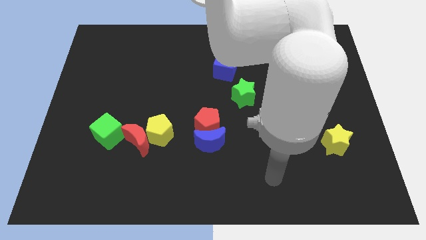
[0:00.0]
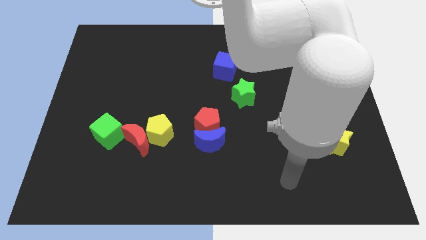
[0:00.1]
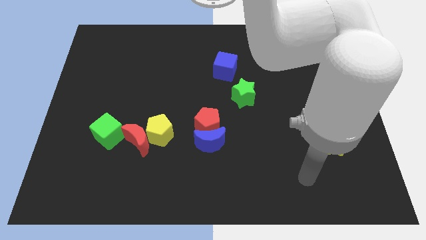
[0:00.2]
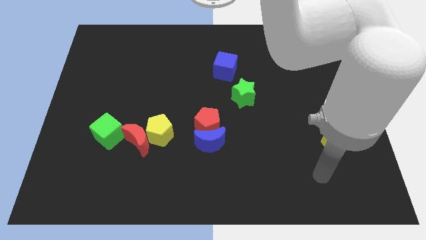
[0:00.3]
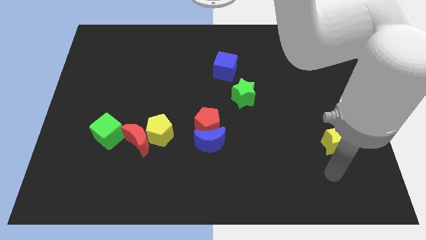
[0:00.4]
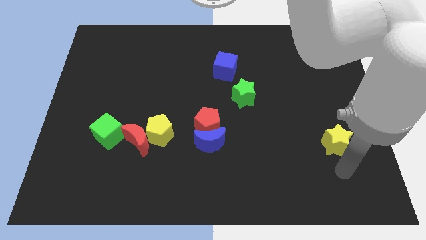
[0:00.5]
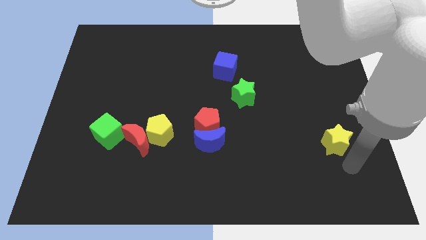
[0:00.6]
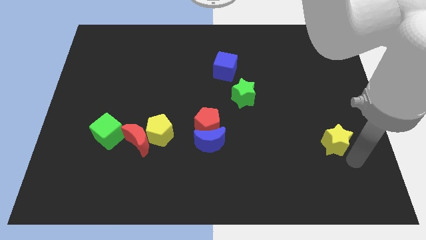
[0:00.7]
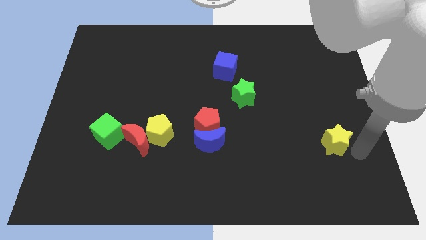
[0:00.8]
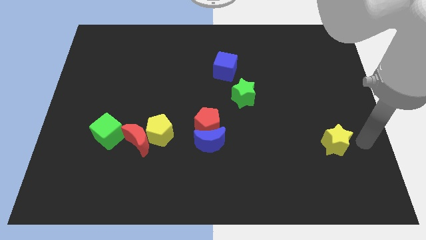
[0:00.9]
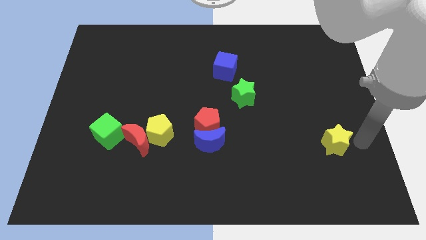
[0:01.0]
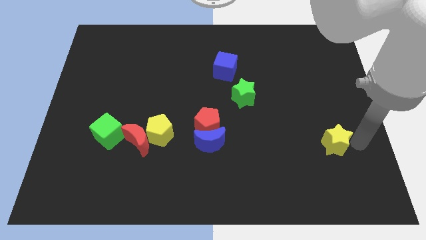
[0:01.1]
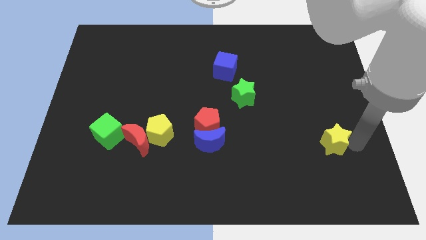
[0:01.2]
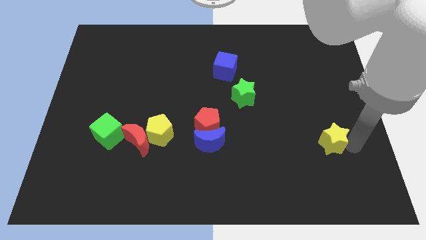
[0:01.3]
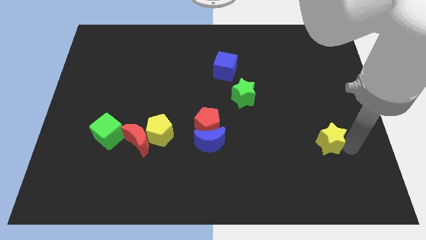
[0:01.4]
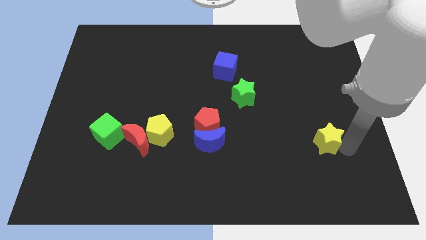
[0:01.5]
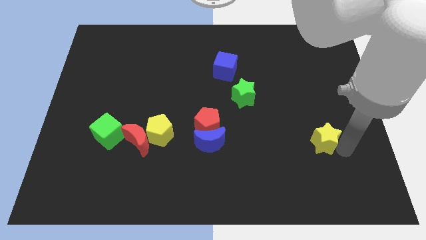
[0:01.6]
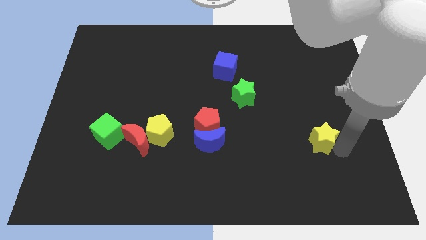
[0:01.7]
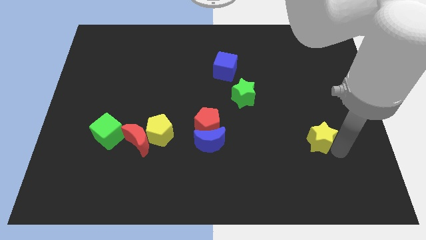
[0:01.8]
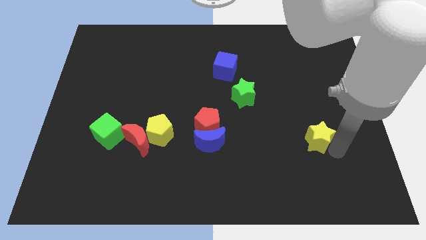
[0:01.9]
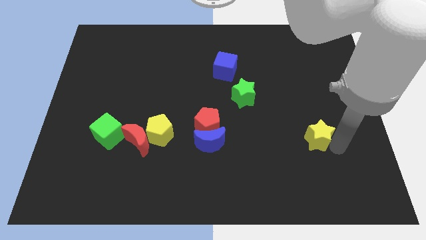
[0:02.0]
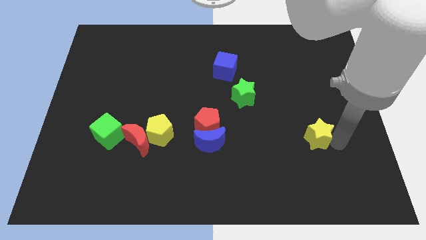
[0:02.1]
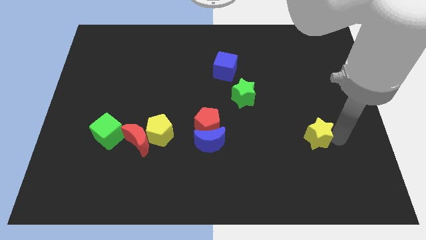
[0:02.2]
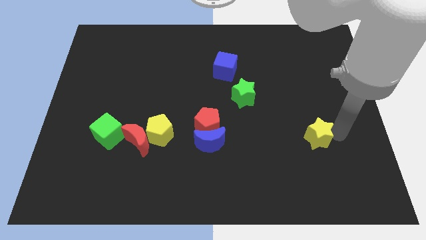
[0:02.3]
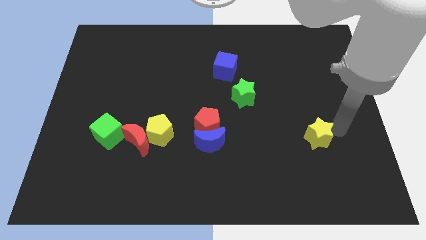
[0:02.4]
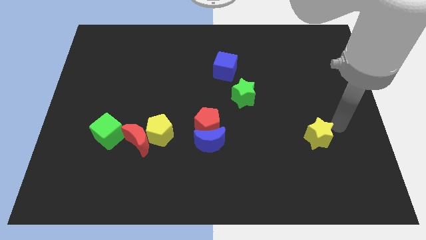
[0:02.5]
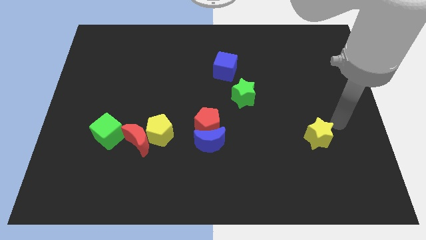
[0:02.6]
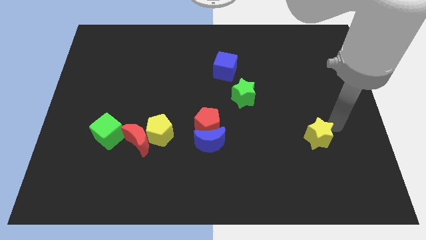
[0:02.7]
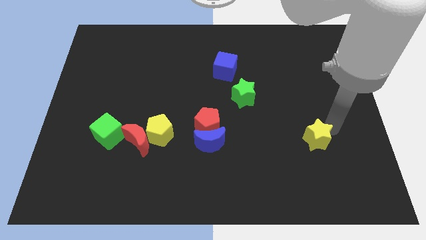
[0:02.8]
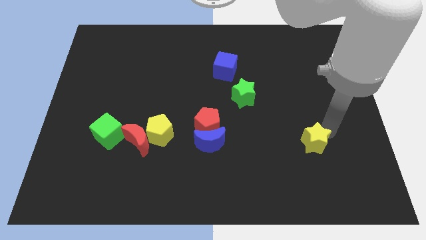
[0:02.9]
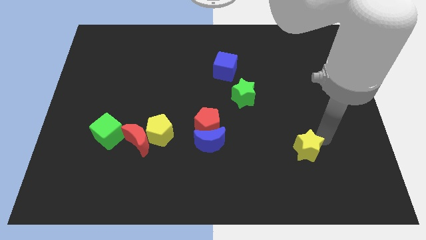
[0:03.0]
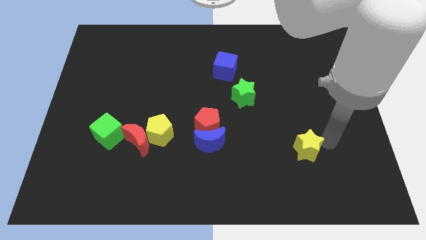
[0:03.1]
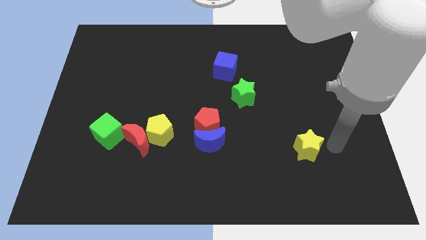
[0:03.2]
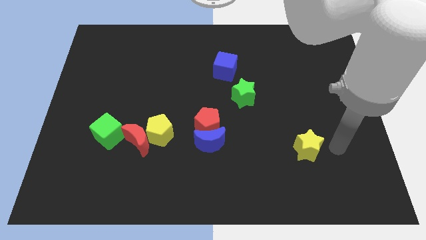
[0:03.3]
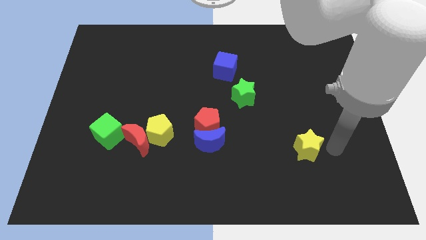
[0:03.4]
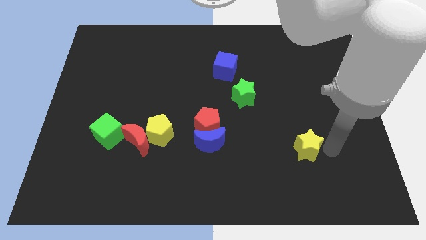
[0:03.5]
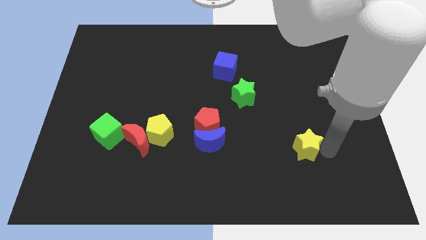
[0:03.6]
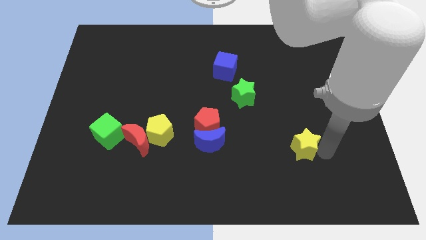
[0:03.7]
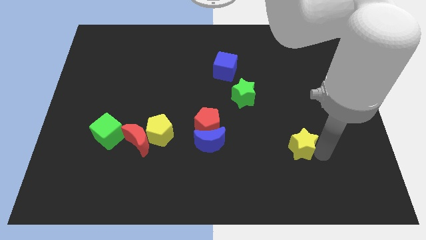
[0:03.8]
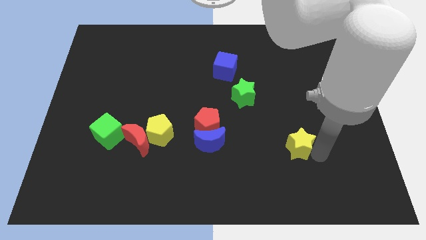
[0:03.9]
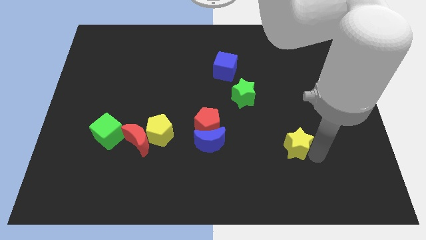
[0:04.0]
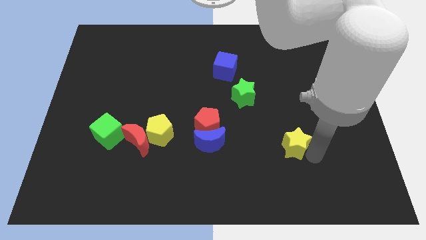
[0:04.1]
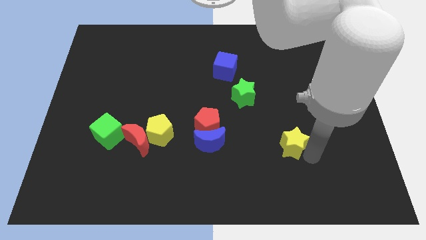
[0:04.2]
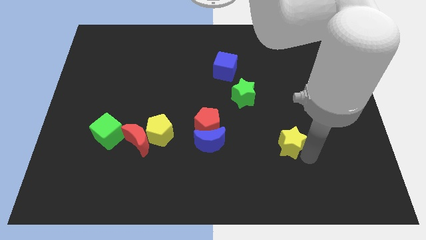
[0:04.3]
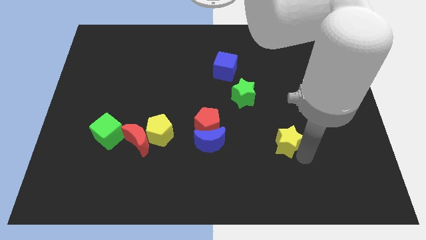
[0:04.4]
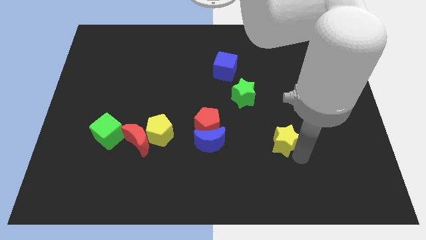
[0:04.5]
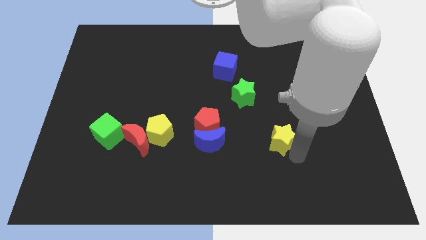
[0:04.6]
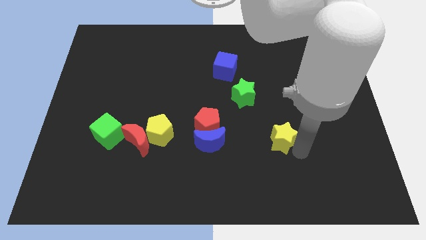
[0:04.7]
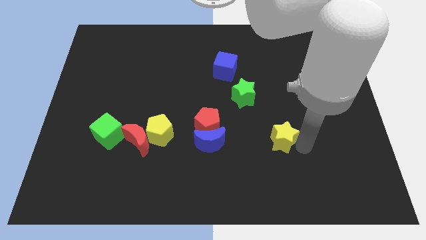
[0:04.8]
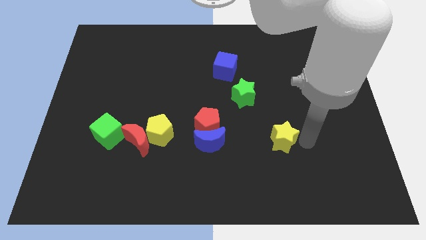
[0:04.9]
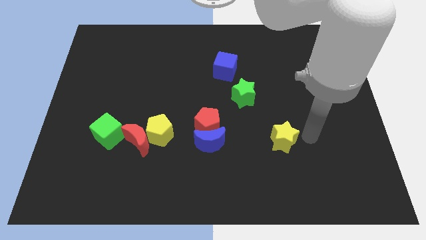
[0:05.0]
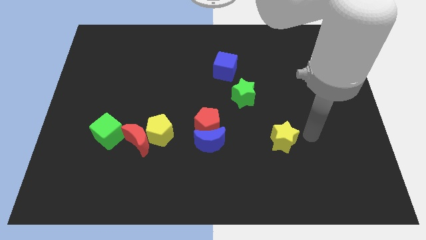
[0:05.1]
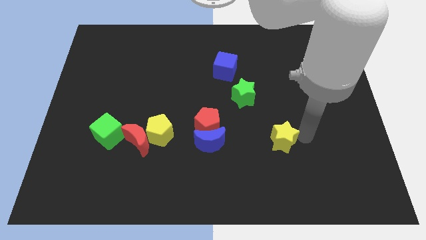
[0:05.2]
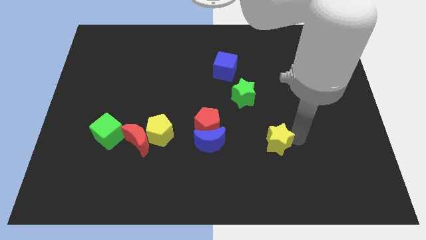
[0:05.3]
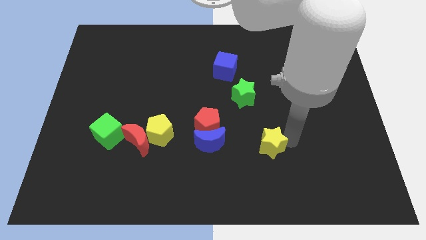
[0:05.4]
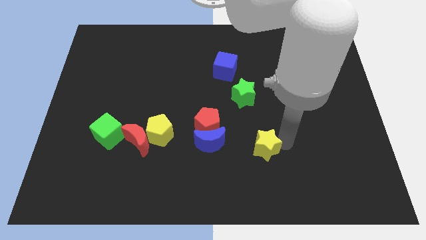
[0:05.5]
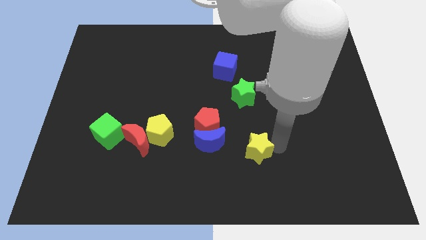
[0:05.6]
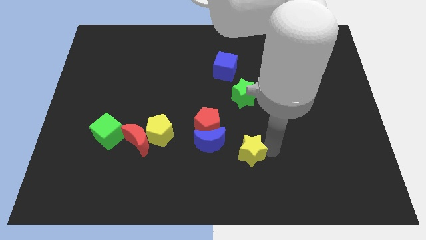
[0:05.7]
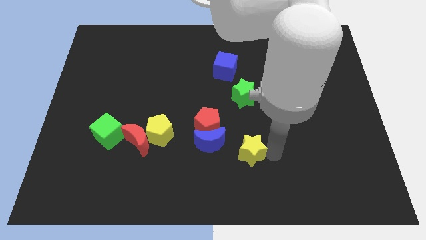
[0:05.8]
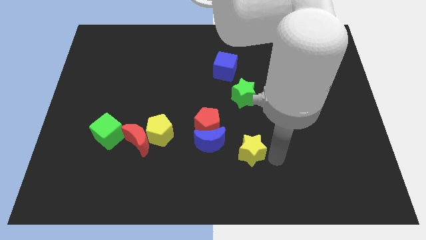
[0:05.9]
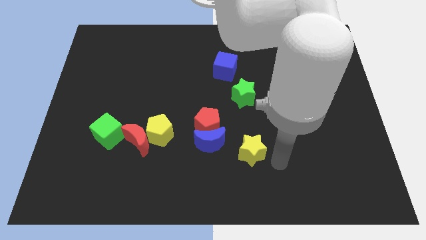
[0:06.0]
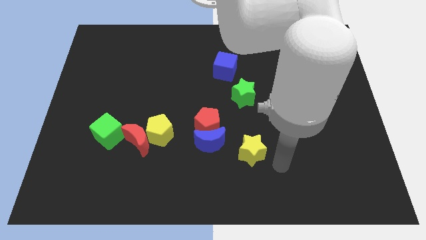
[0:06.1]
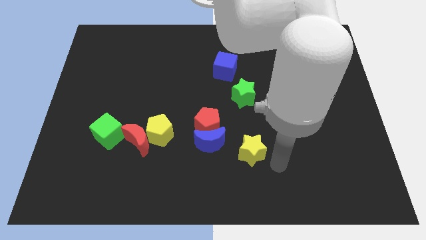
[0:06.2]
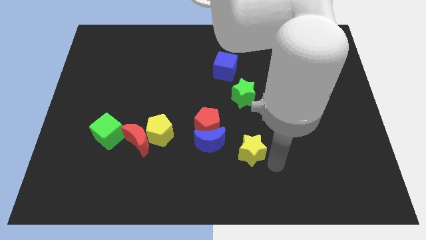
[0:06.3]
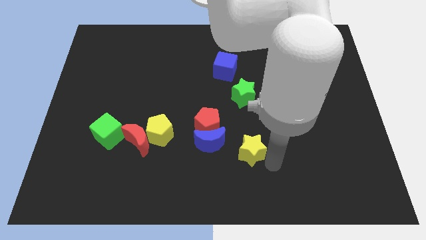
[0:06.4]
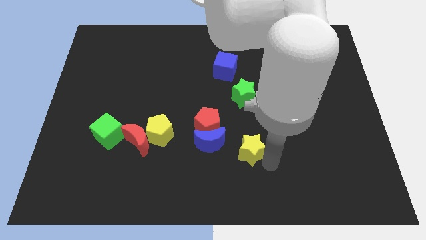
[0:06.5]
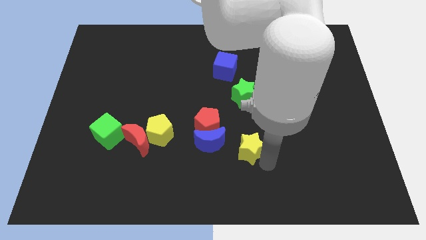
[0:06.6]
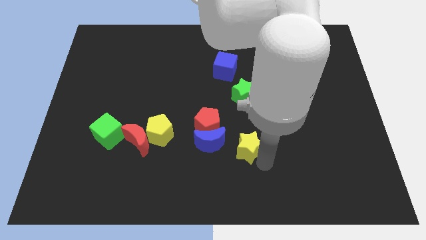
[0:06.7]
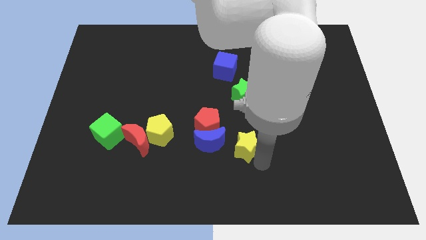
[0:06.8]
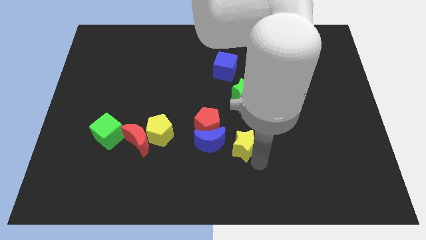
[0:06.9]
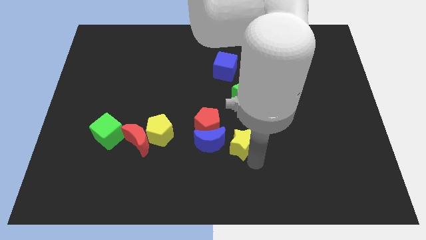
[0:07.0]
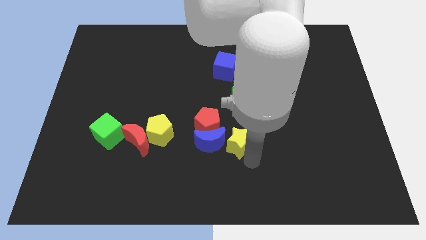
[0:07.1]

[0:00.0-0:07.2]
put the yellow star close to the blue moon

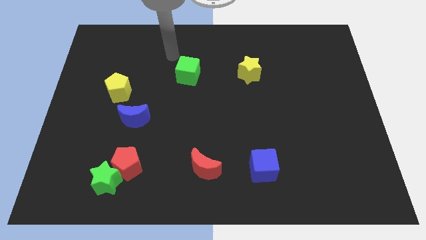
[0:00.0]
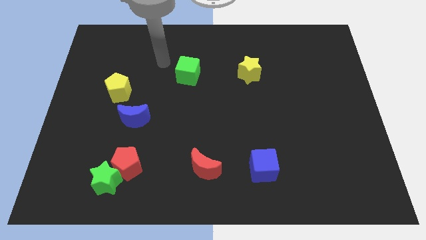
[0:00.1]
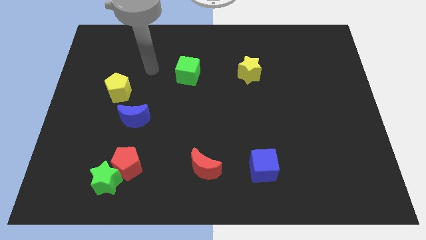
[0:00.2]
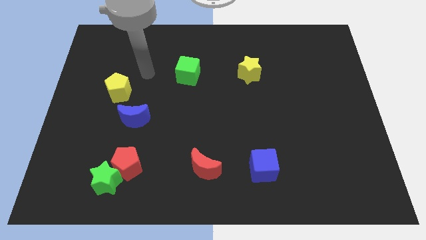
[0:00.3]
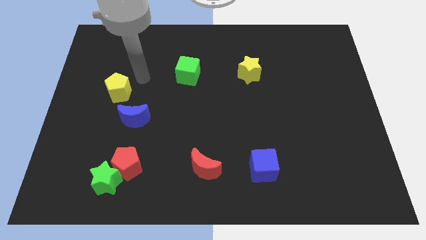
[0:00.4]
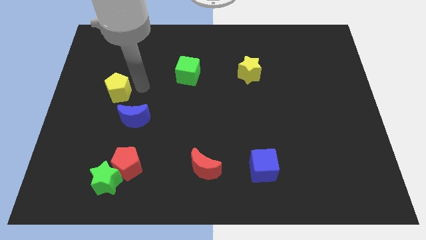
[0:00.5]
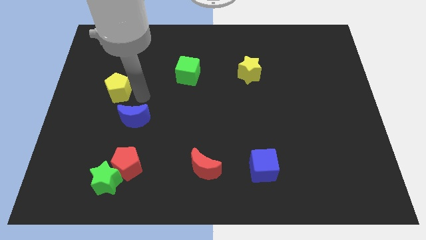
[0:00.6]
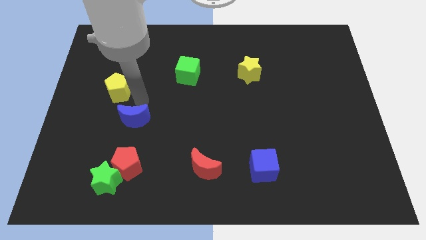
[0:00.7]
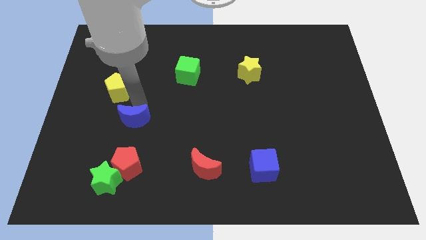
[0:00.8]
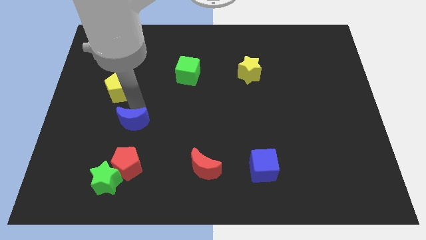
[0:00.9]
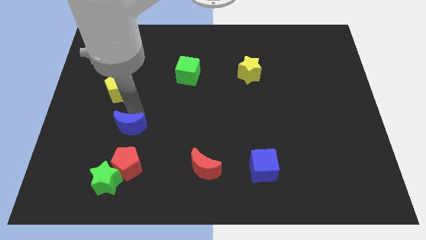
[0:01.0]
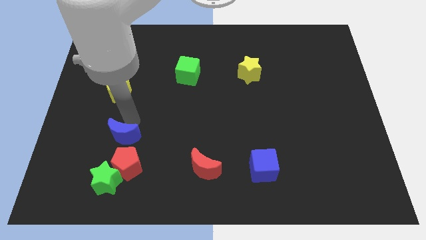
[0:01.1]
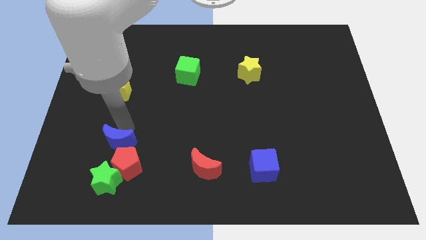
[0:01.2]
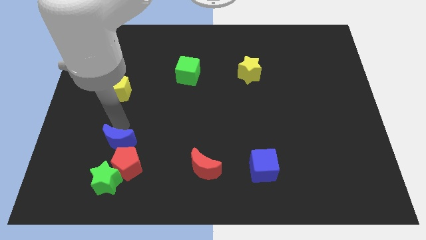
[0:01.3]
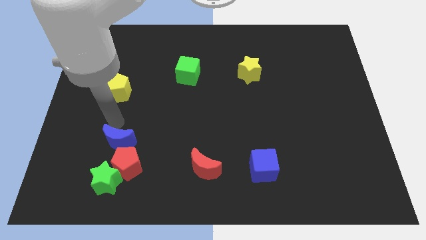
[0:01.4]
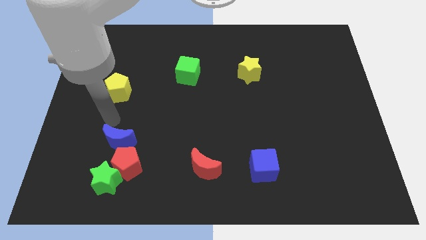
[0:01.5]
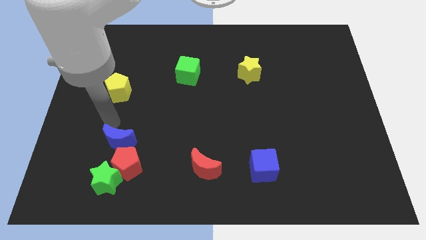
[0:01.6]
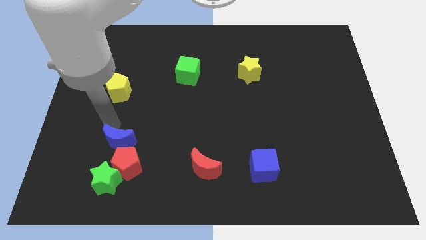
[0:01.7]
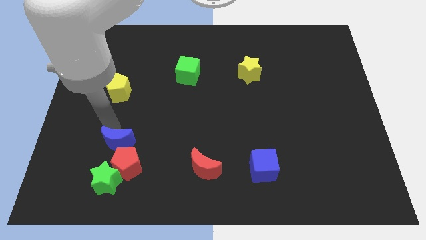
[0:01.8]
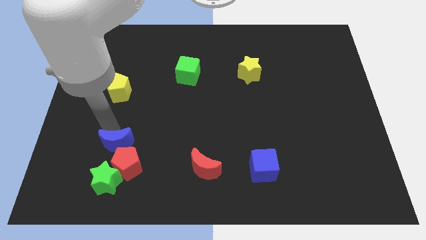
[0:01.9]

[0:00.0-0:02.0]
move the blue moon next to the red pentagon
